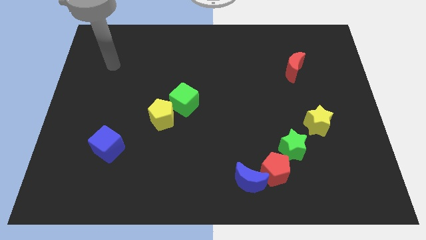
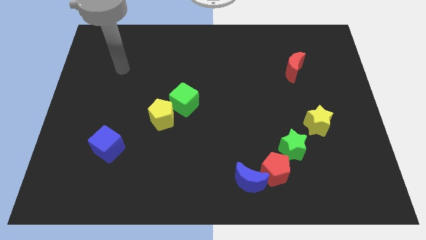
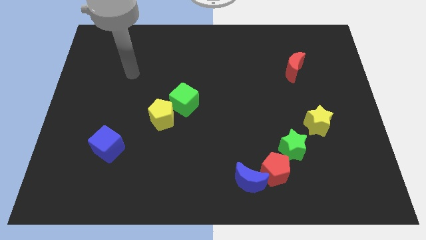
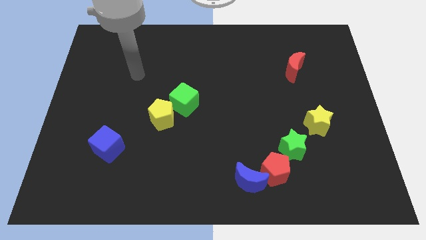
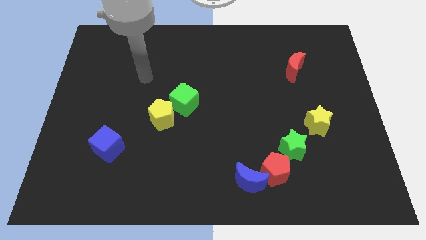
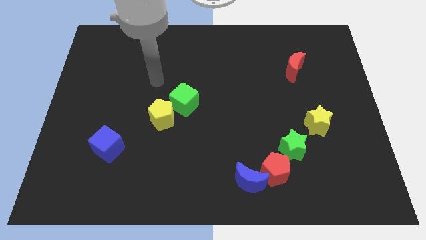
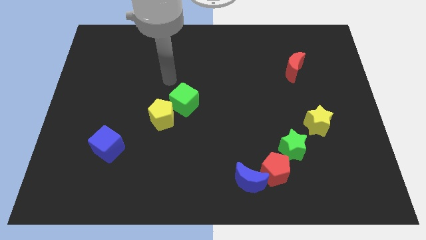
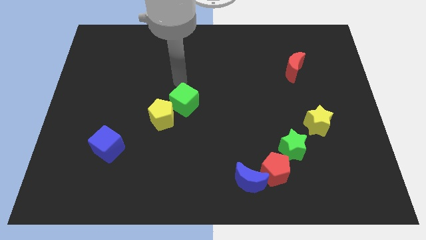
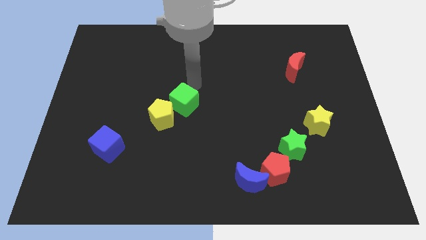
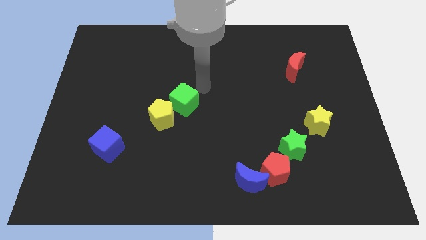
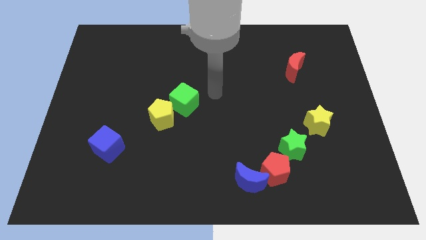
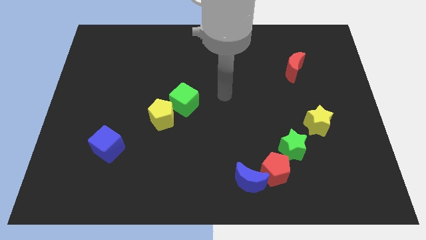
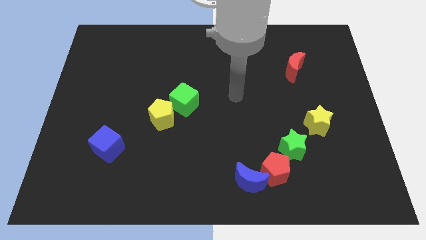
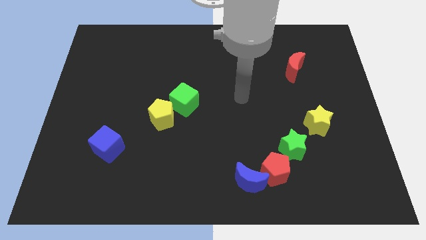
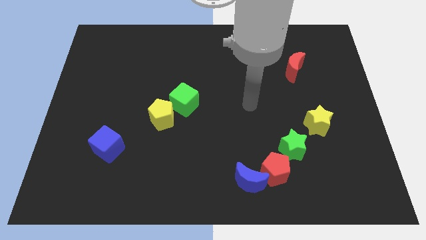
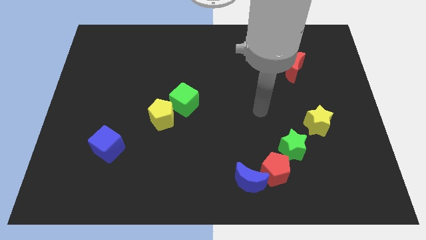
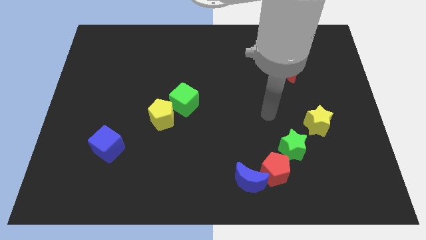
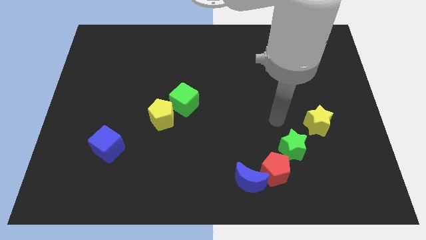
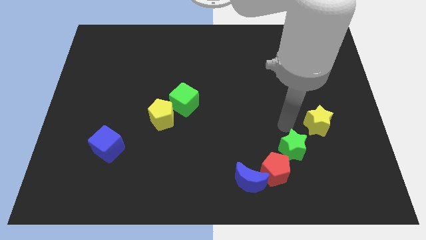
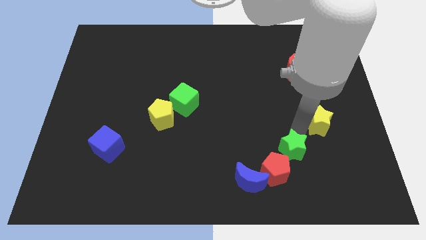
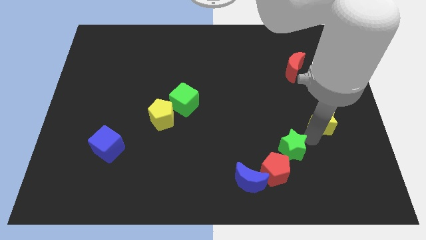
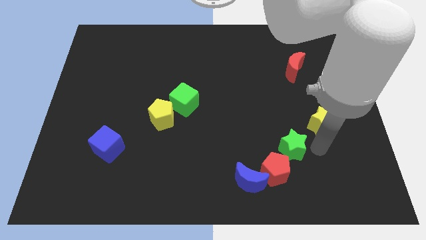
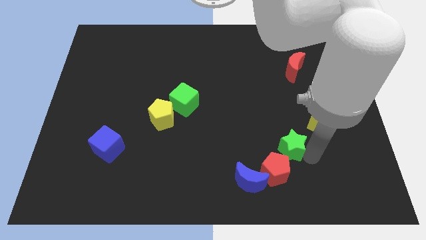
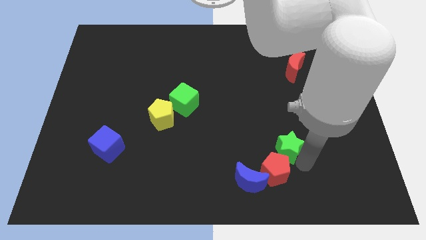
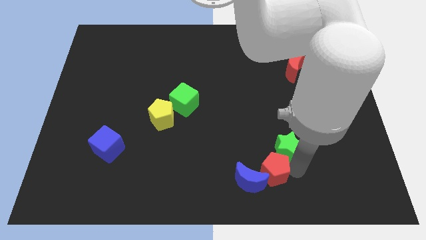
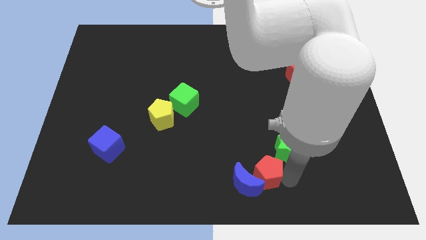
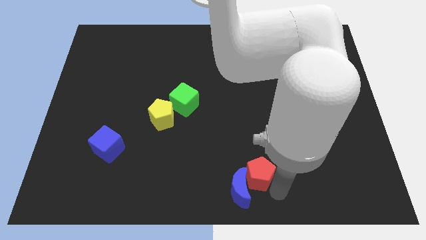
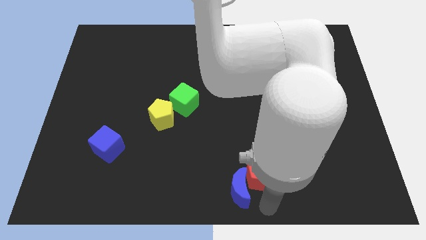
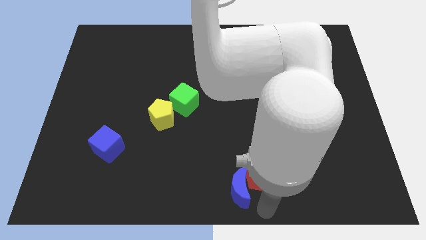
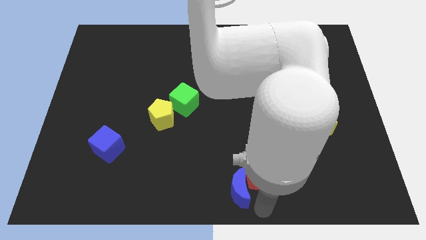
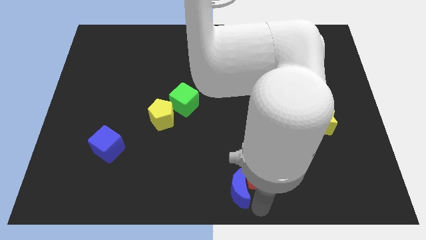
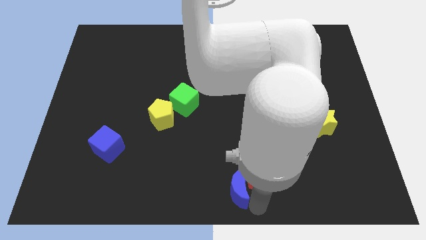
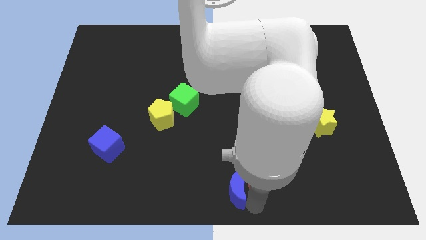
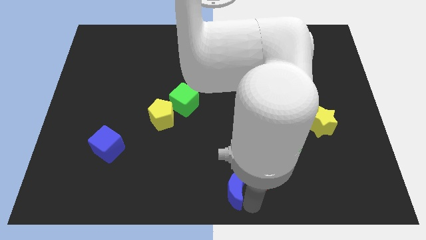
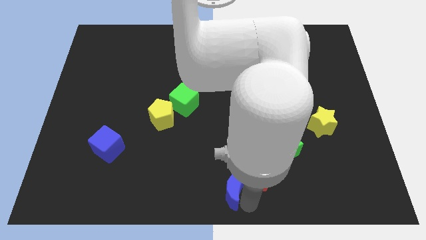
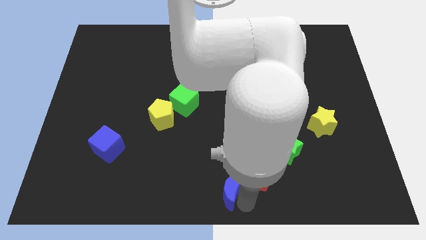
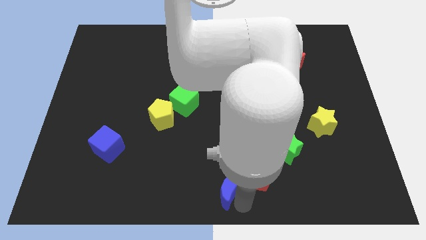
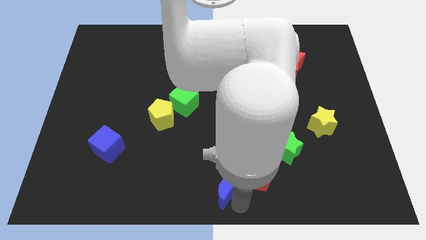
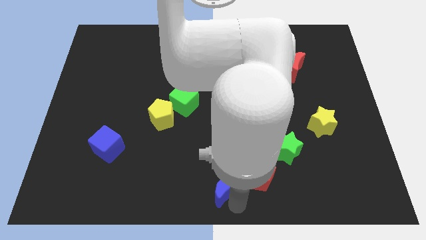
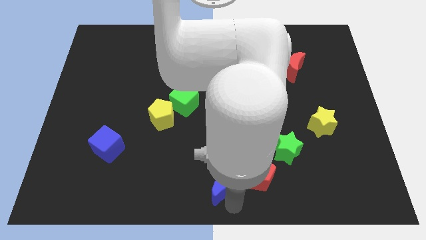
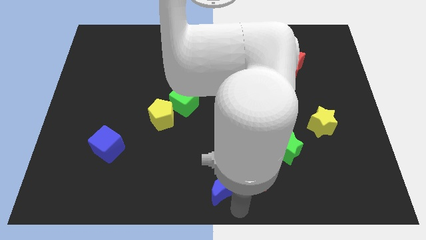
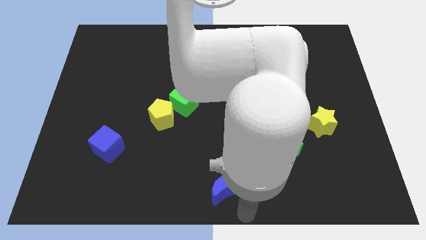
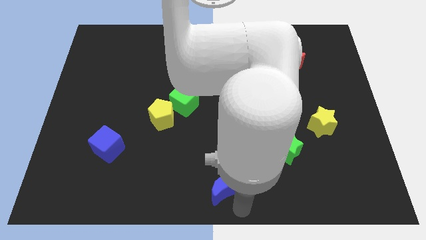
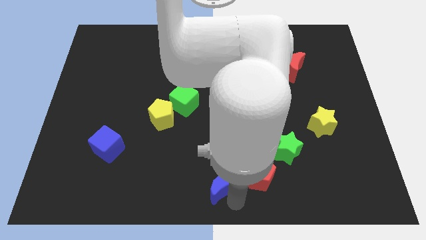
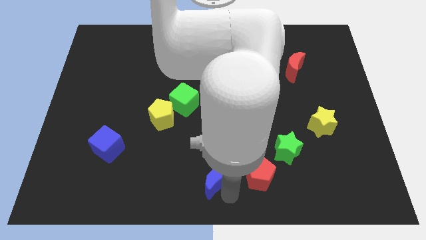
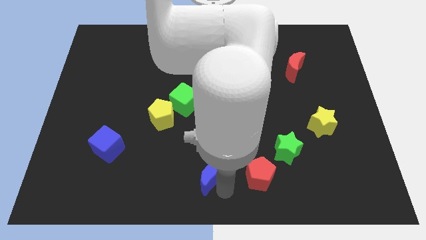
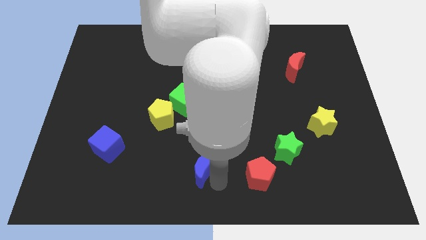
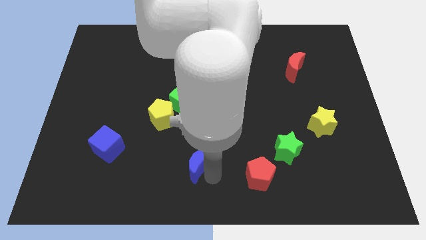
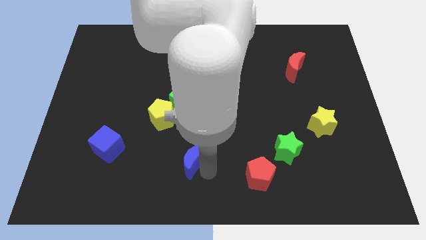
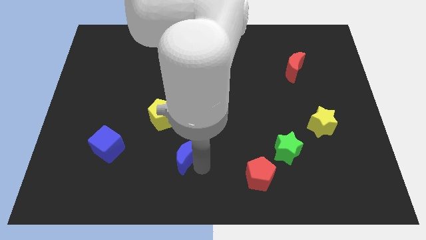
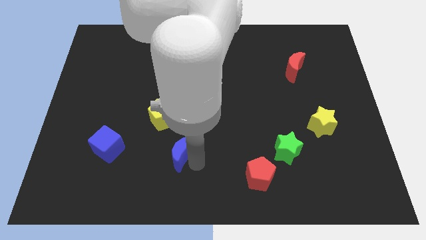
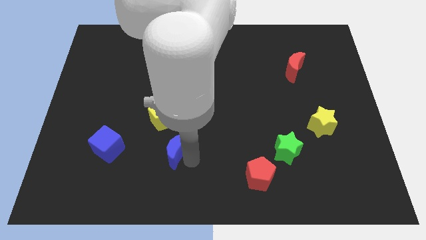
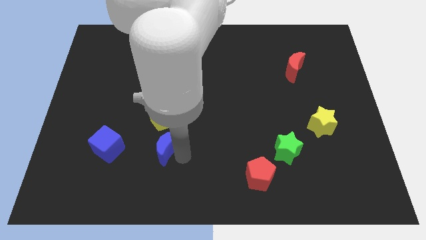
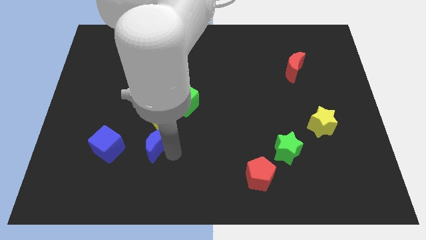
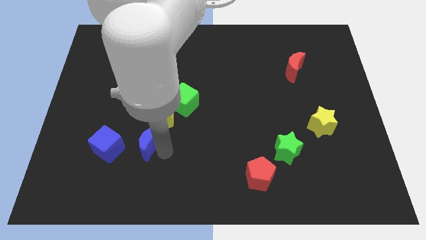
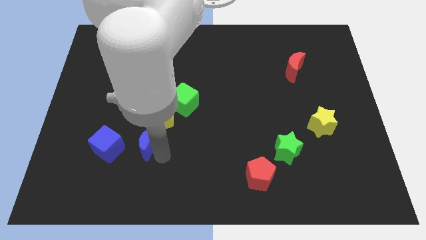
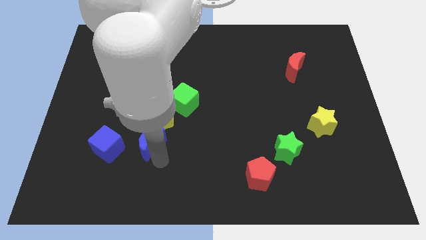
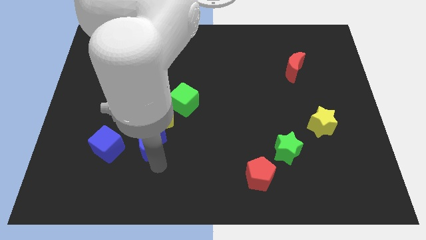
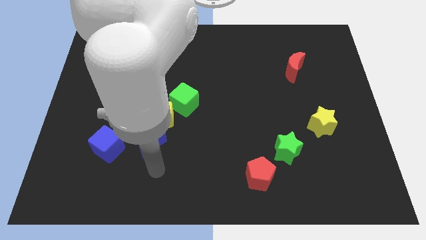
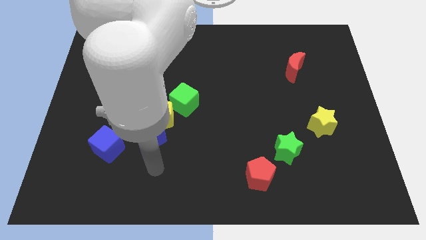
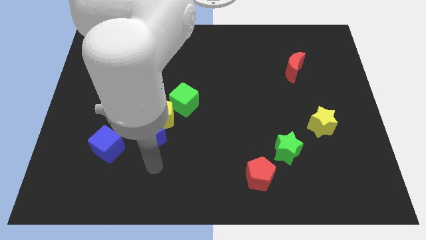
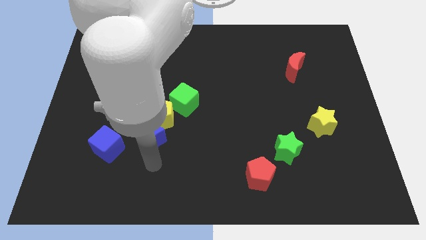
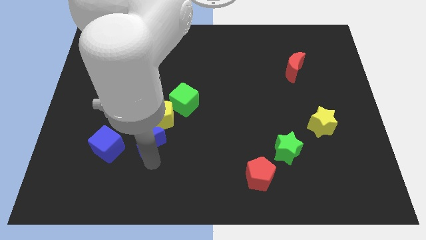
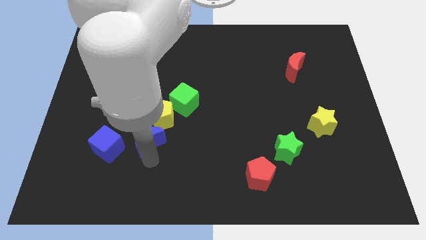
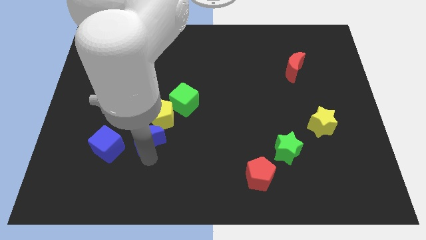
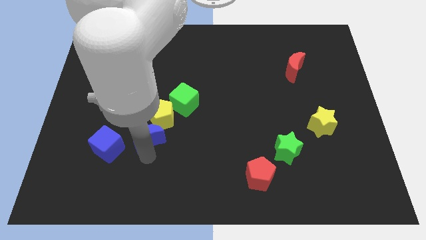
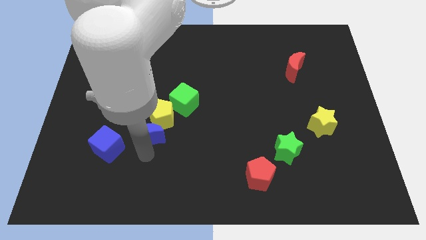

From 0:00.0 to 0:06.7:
slide the blue moon up and left diagonally

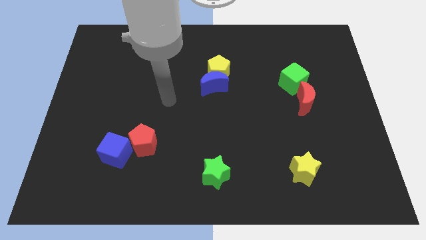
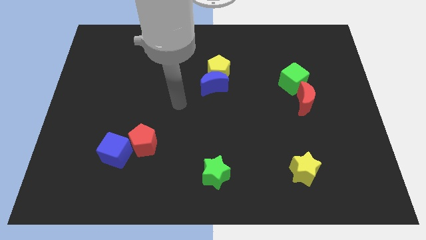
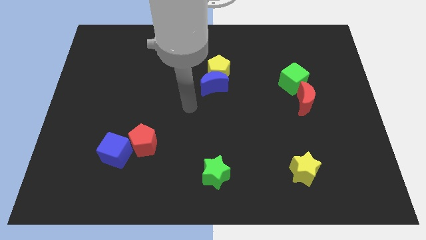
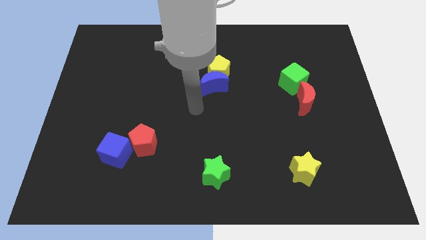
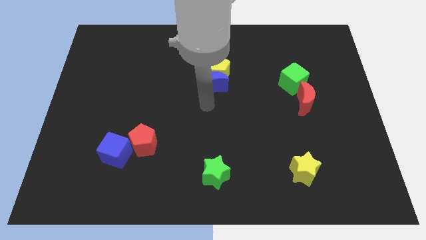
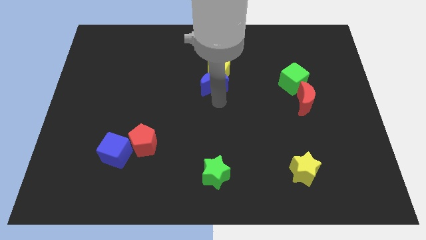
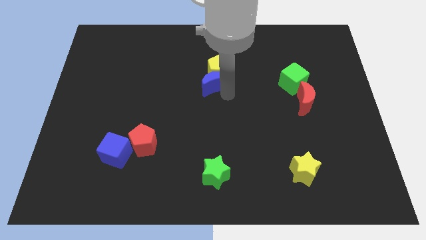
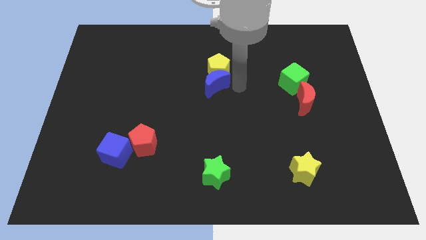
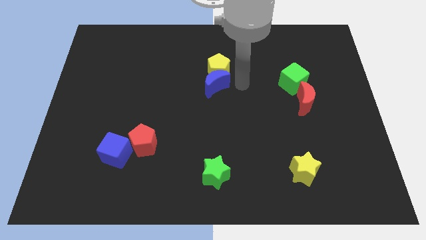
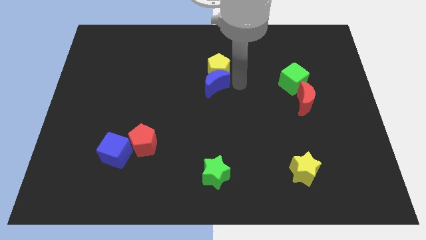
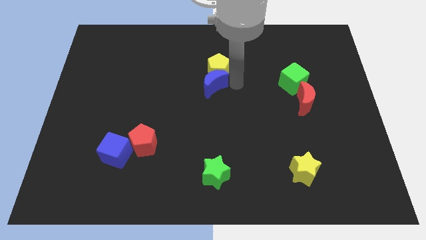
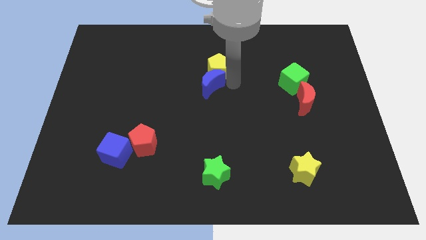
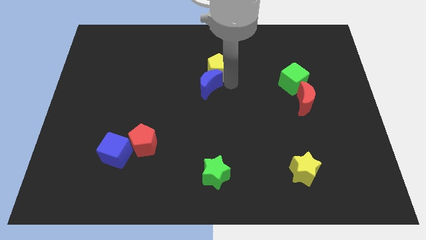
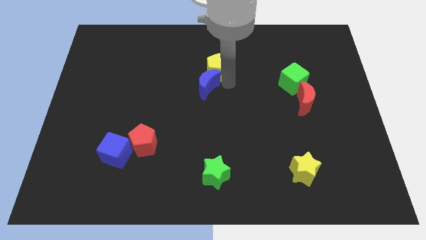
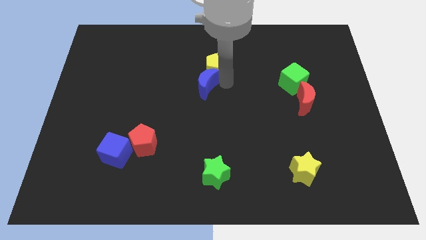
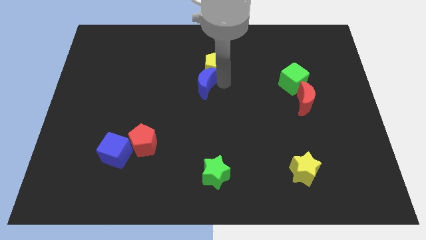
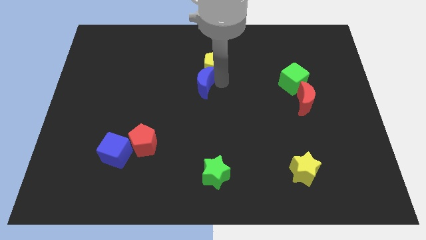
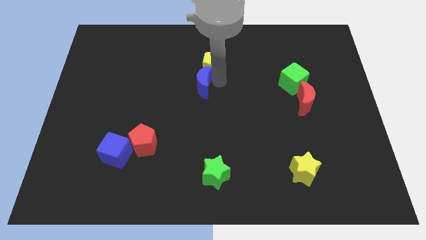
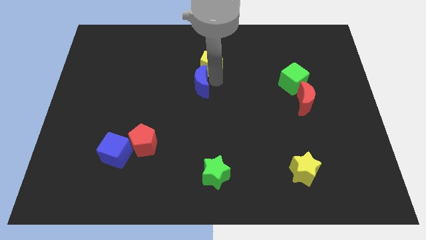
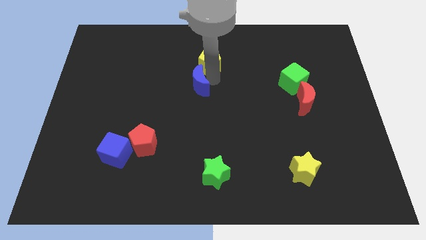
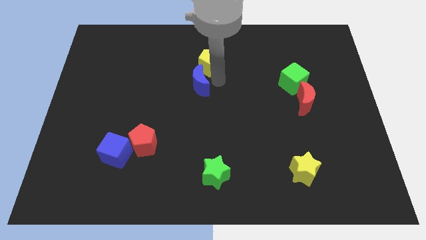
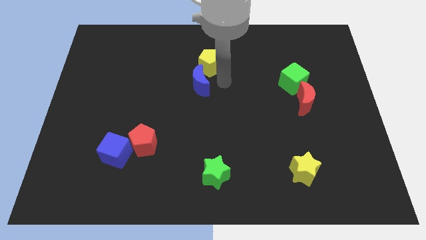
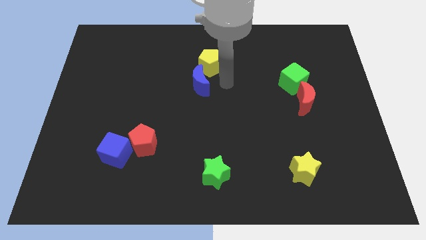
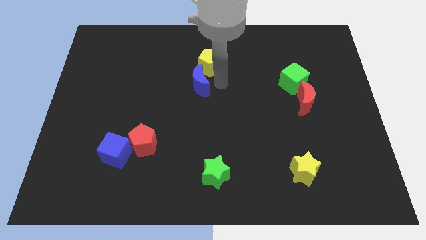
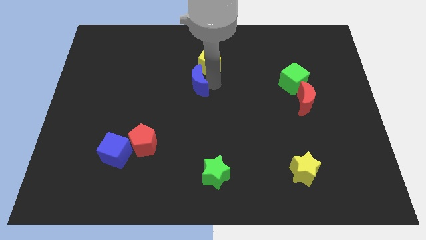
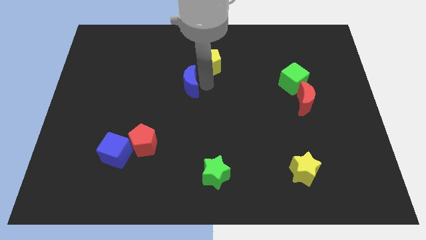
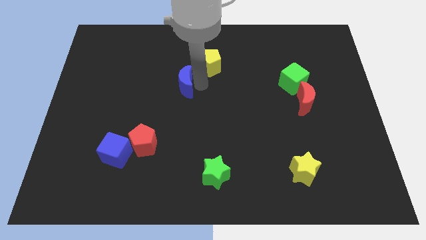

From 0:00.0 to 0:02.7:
push the blue moon a bit left
